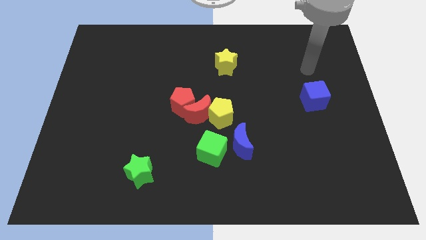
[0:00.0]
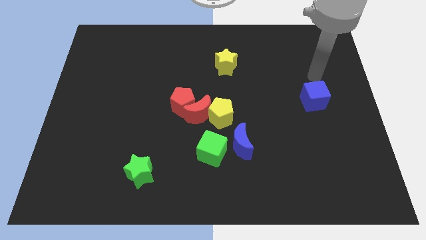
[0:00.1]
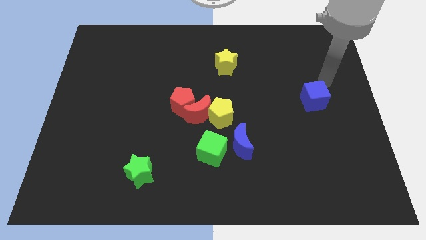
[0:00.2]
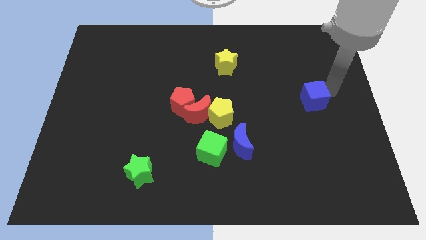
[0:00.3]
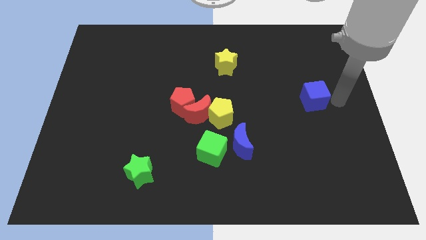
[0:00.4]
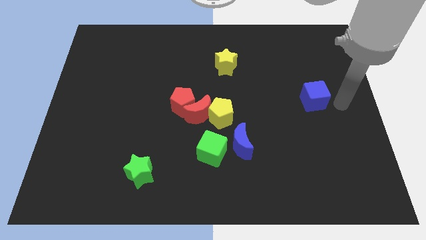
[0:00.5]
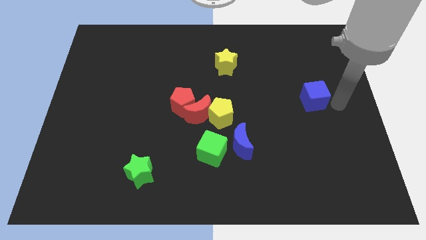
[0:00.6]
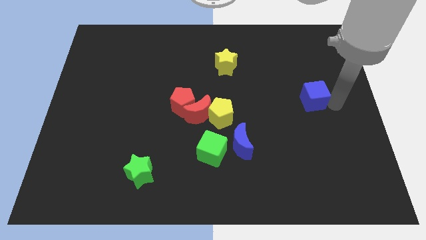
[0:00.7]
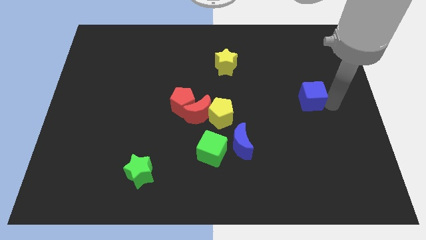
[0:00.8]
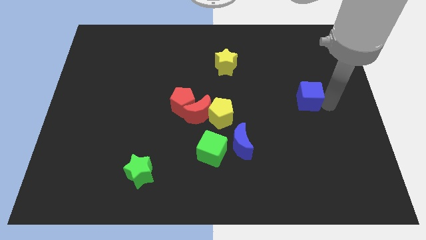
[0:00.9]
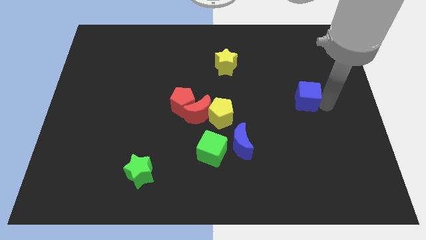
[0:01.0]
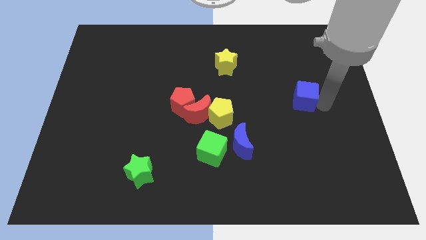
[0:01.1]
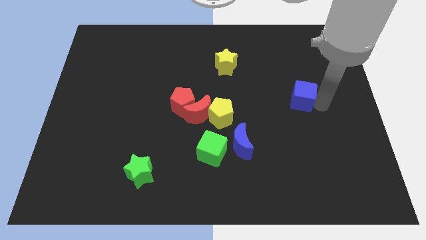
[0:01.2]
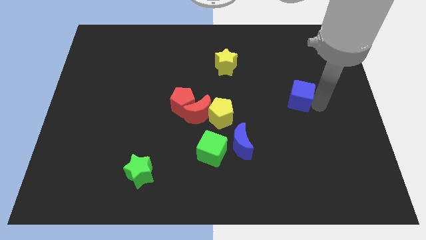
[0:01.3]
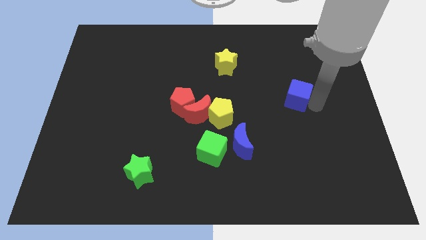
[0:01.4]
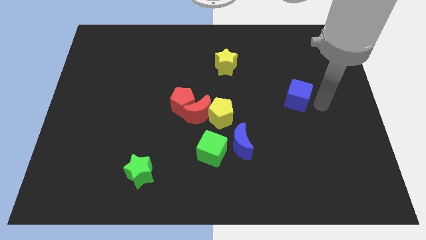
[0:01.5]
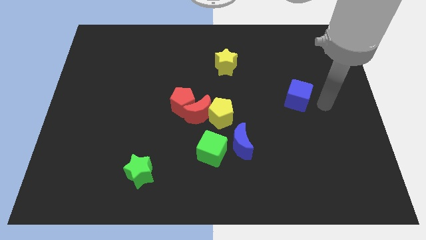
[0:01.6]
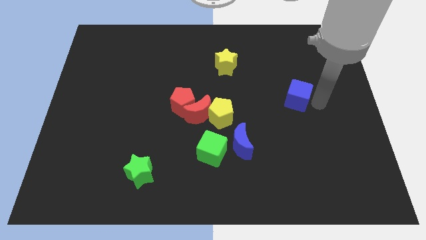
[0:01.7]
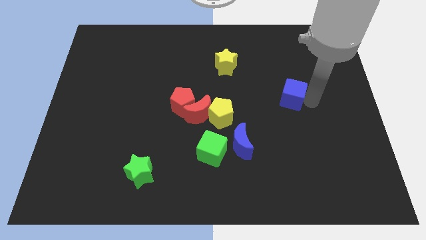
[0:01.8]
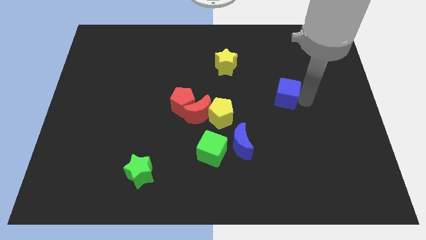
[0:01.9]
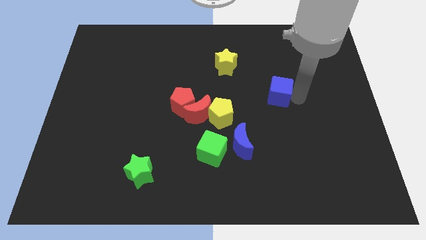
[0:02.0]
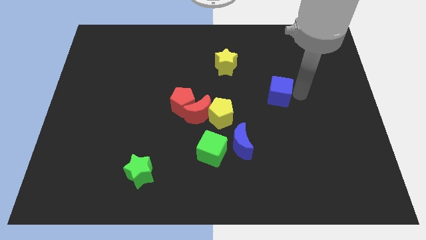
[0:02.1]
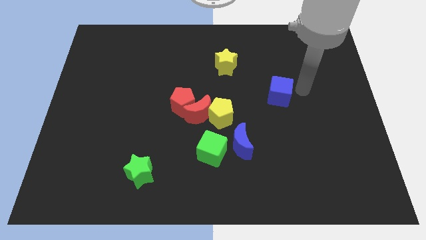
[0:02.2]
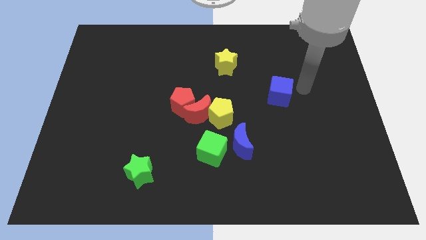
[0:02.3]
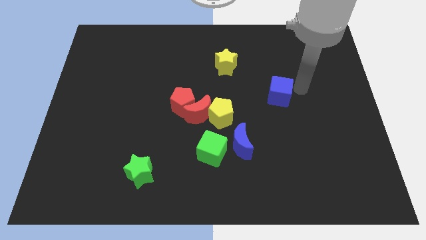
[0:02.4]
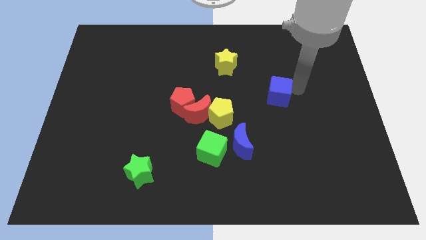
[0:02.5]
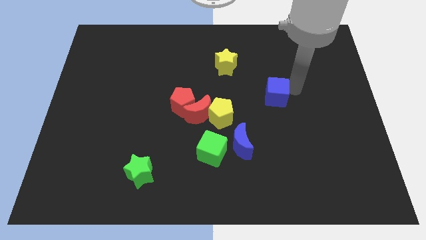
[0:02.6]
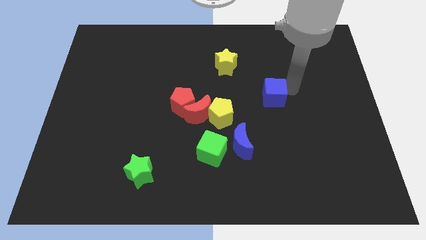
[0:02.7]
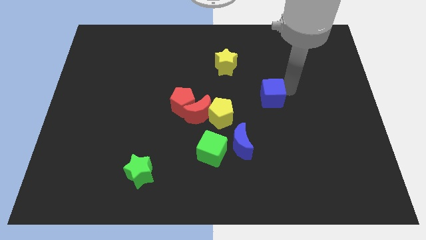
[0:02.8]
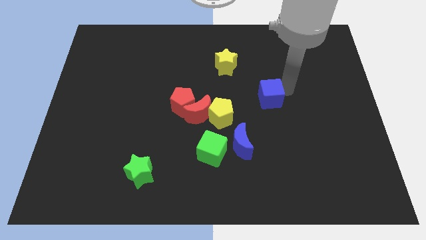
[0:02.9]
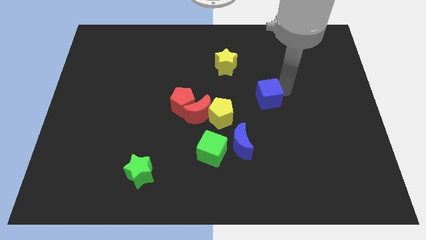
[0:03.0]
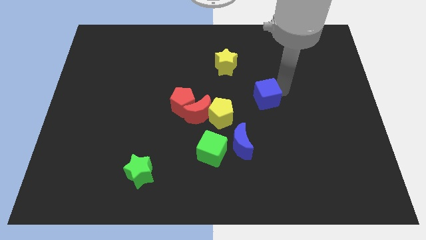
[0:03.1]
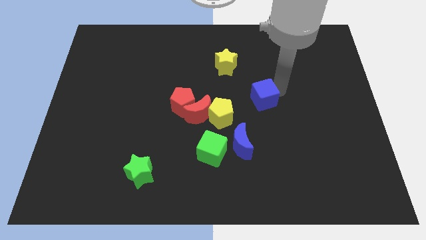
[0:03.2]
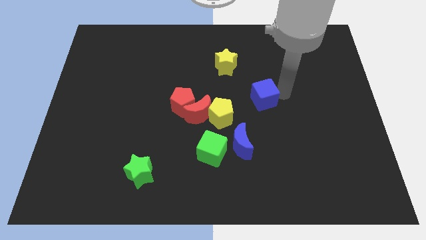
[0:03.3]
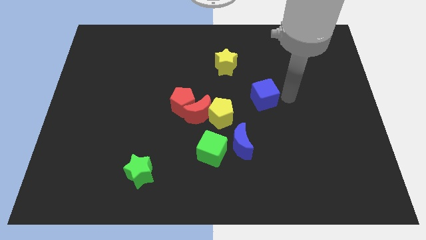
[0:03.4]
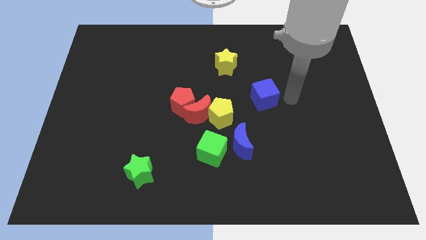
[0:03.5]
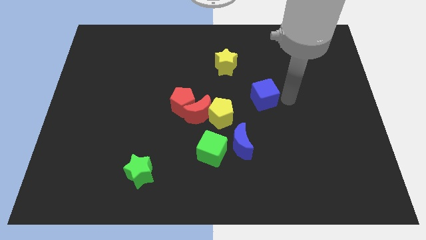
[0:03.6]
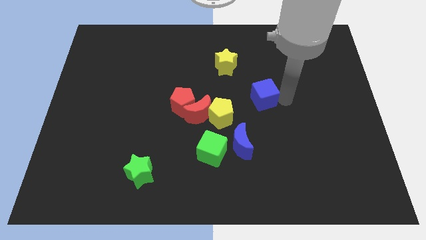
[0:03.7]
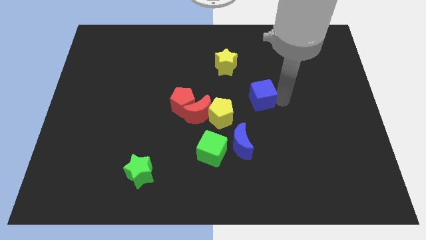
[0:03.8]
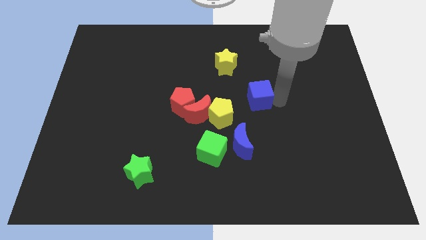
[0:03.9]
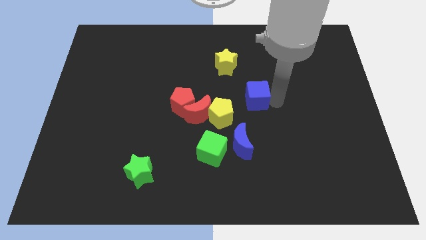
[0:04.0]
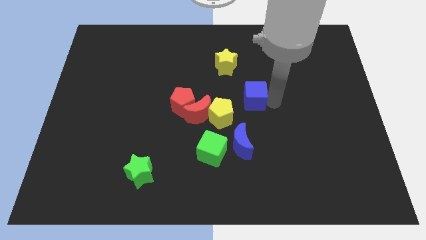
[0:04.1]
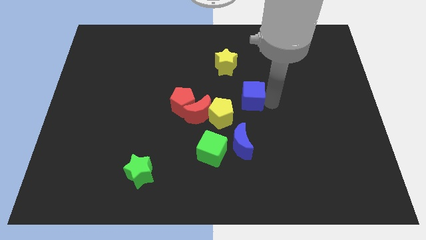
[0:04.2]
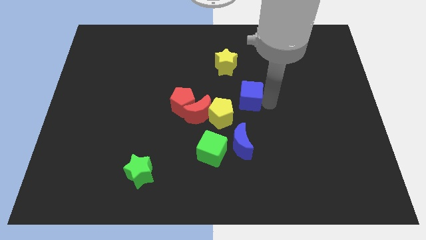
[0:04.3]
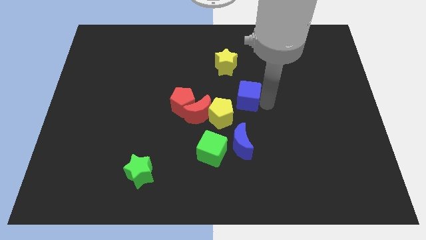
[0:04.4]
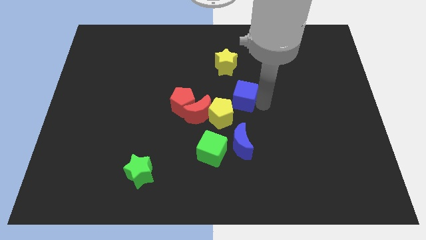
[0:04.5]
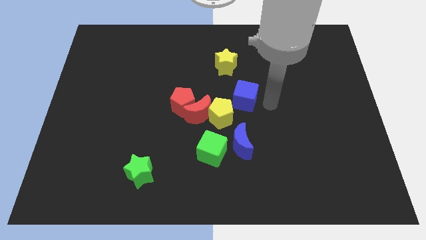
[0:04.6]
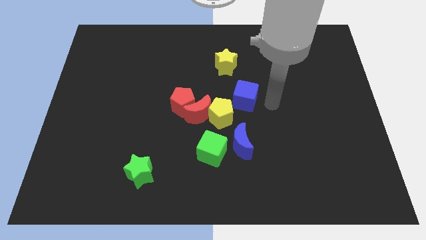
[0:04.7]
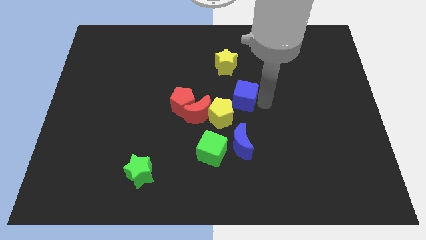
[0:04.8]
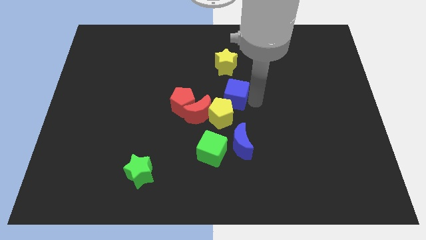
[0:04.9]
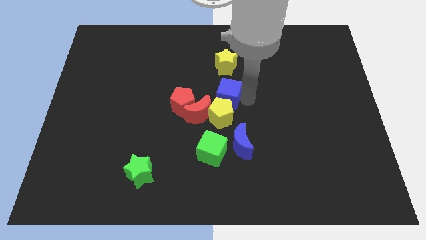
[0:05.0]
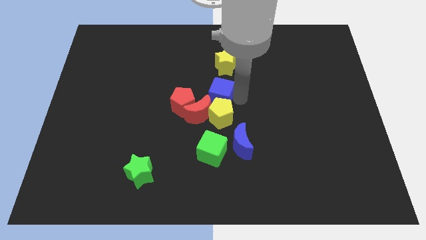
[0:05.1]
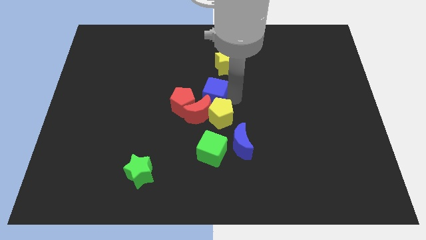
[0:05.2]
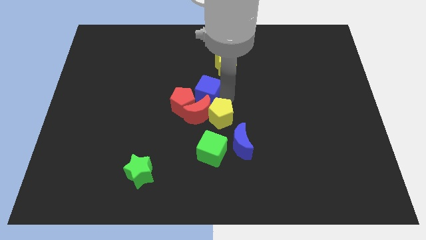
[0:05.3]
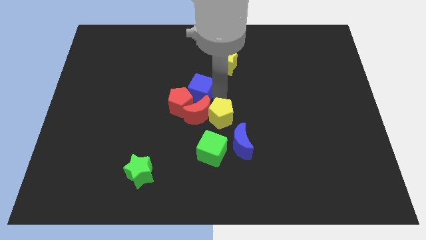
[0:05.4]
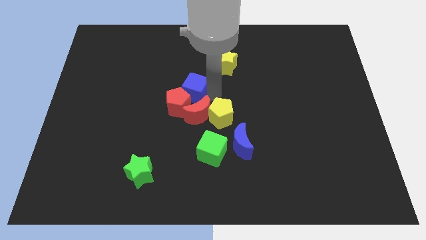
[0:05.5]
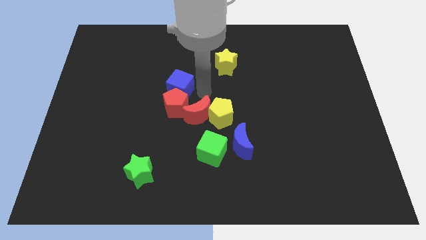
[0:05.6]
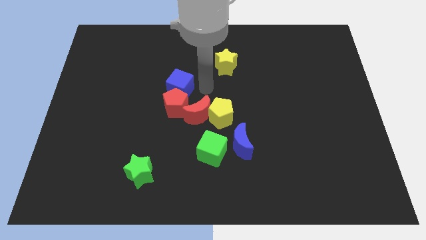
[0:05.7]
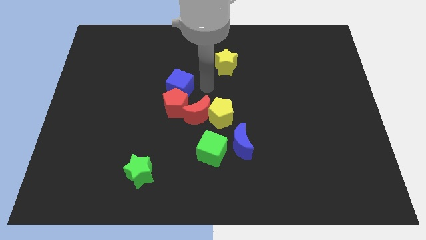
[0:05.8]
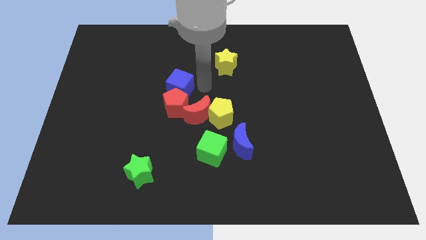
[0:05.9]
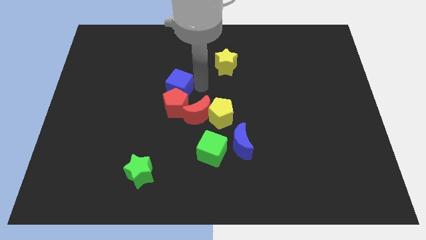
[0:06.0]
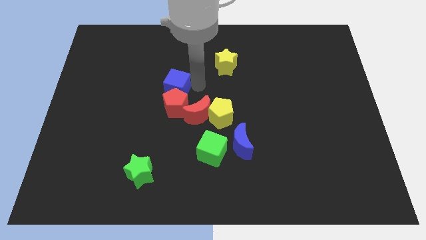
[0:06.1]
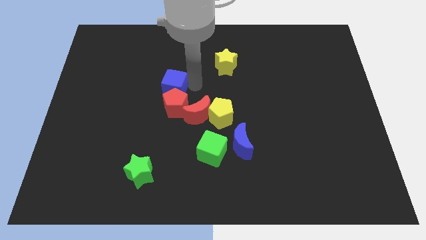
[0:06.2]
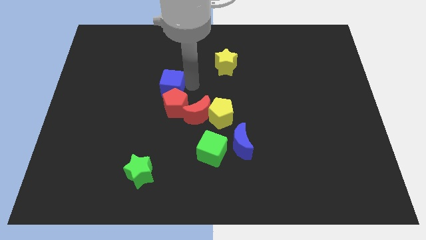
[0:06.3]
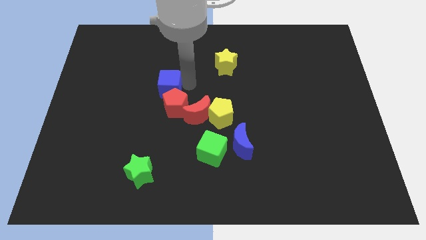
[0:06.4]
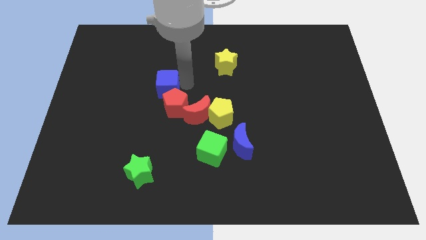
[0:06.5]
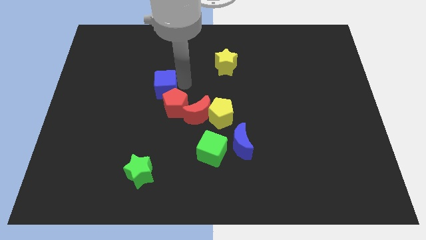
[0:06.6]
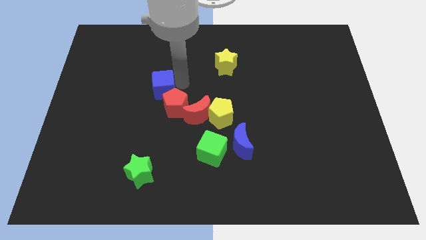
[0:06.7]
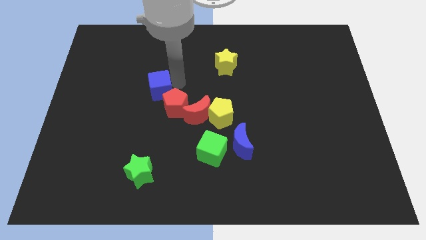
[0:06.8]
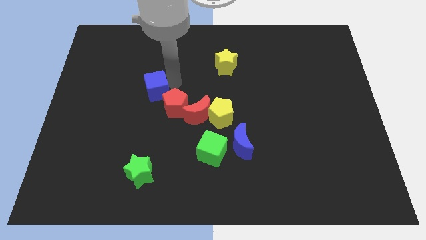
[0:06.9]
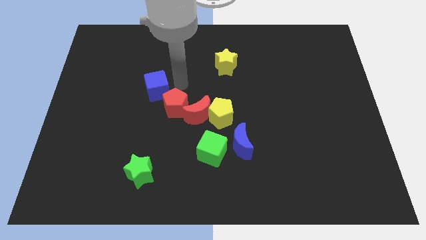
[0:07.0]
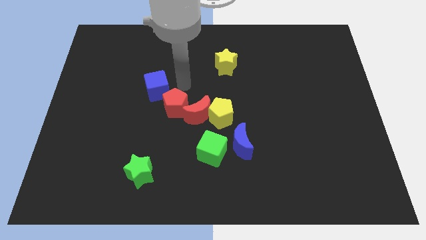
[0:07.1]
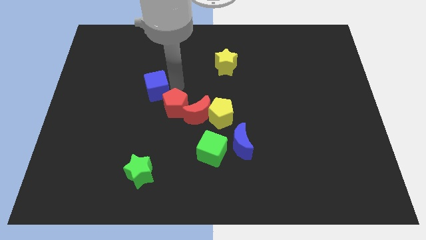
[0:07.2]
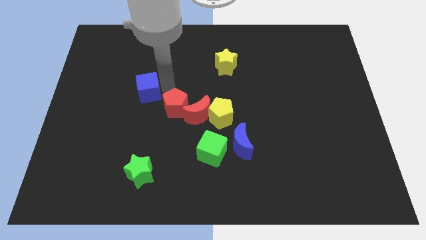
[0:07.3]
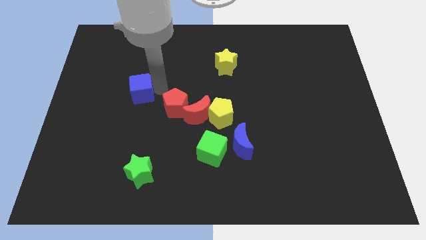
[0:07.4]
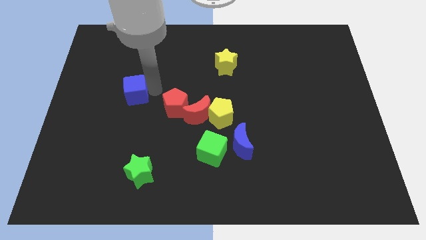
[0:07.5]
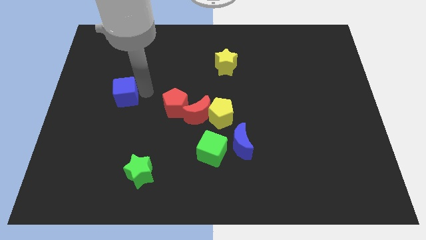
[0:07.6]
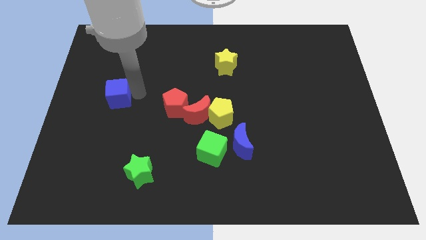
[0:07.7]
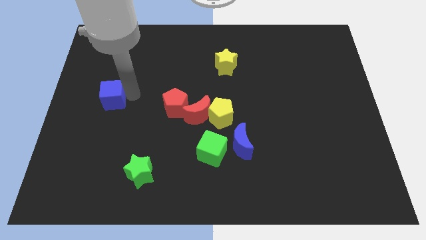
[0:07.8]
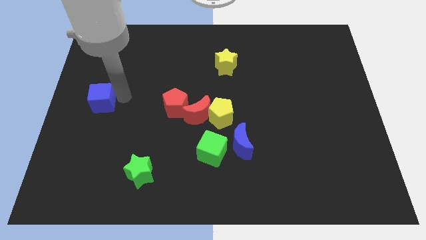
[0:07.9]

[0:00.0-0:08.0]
move the blue cube to the left side
